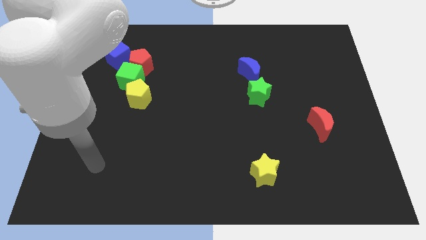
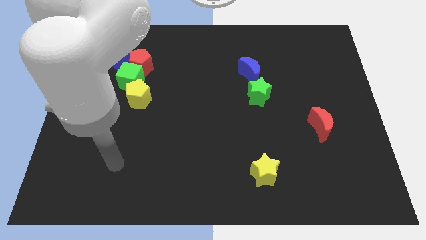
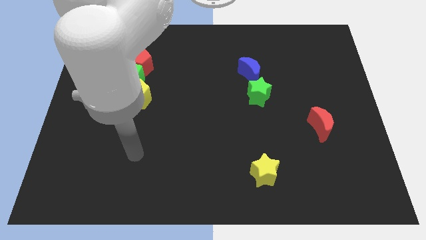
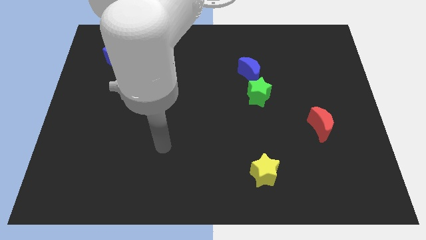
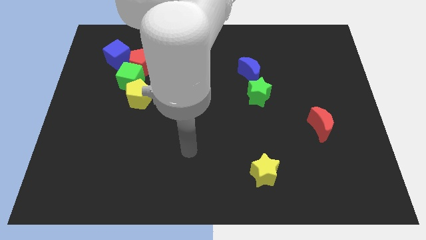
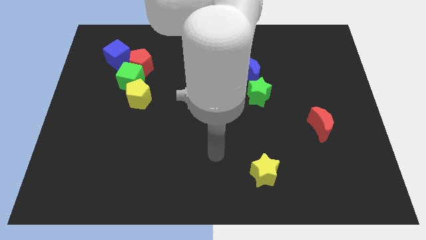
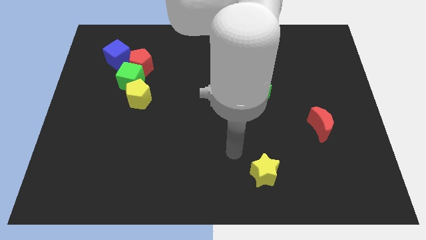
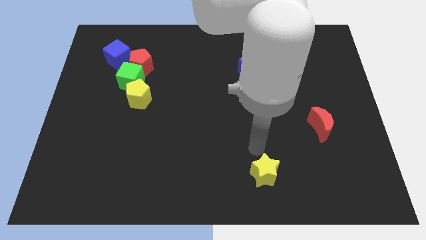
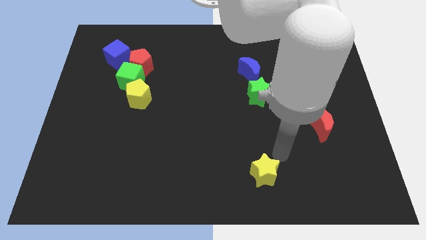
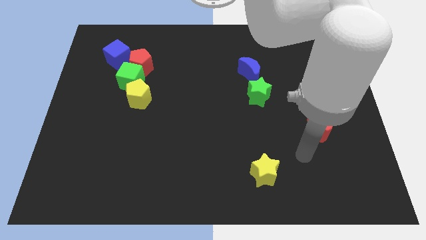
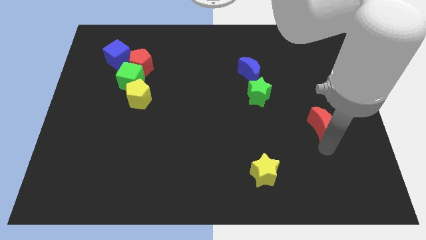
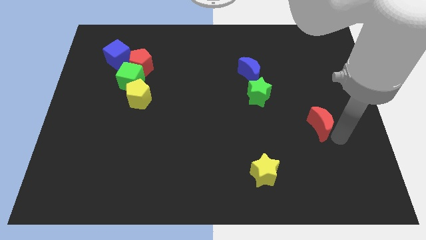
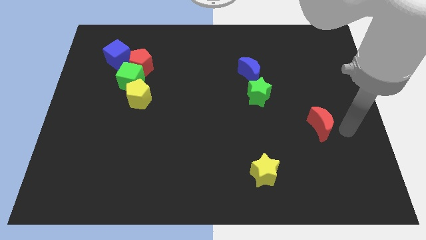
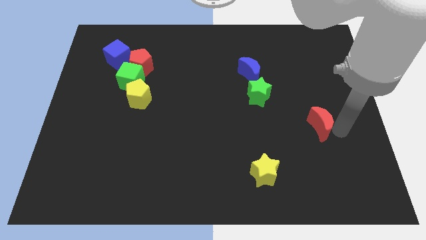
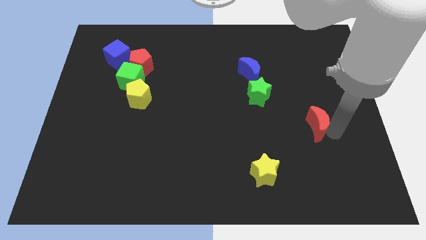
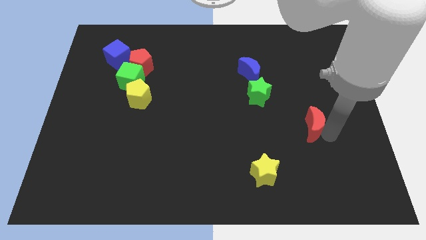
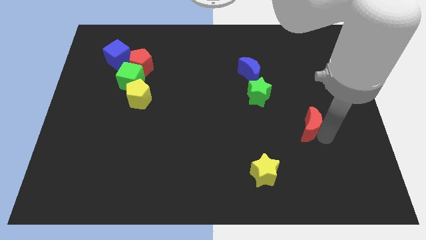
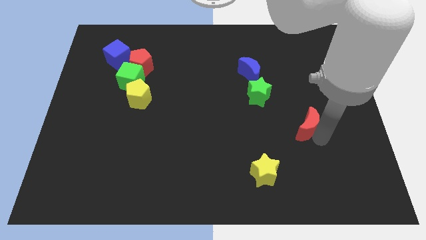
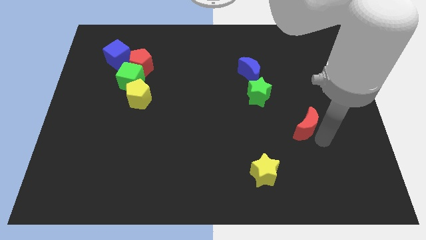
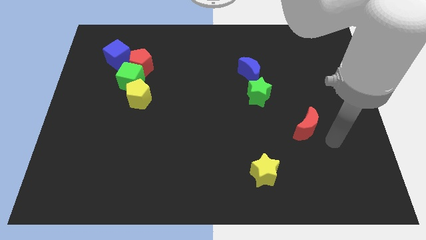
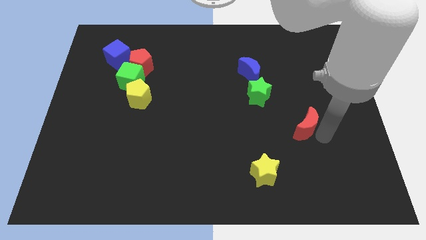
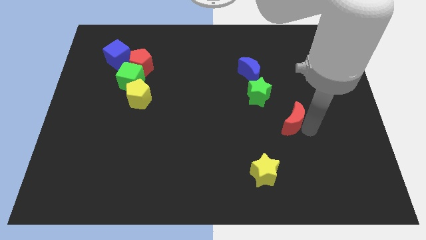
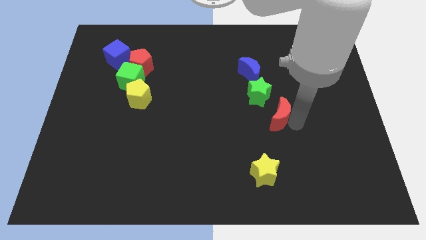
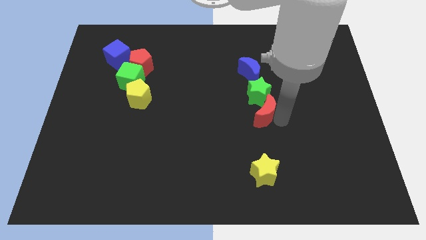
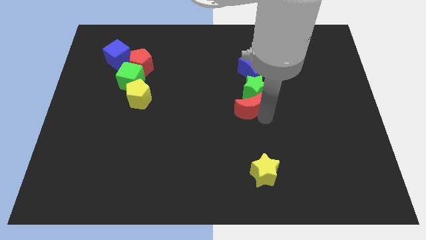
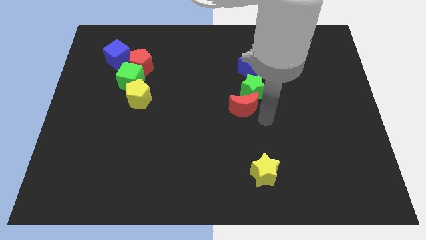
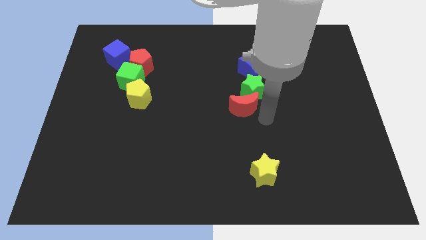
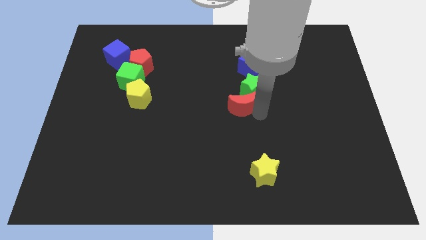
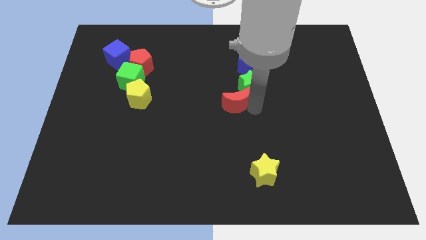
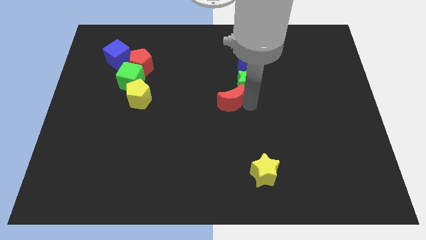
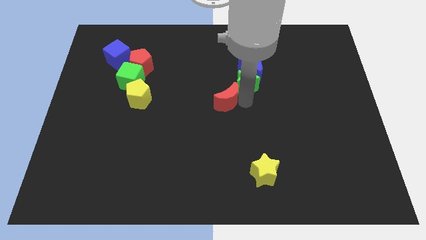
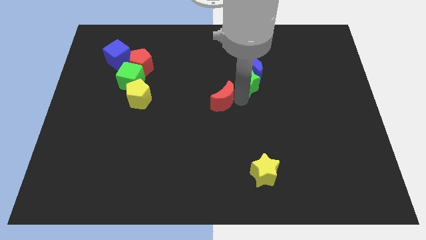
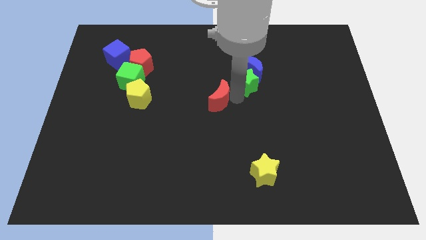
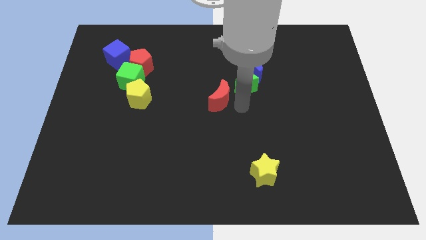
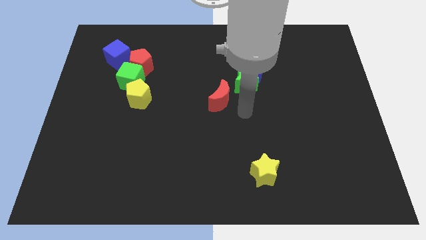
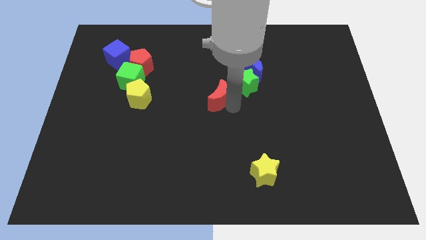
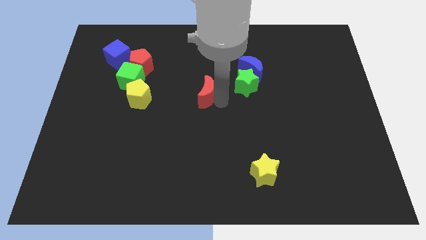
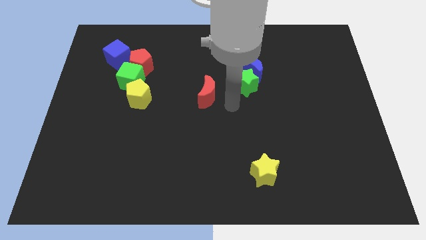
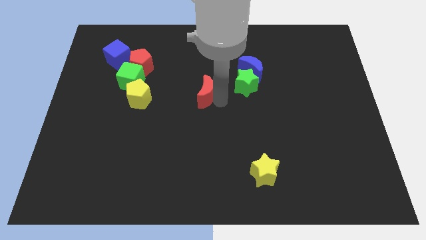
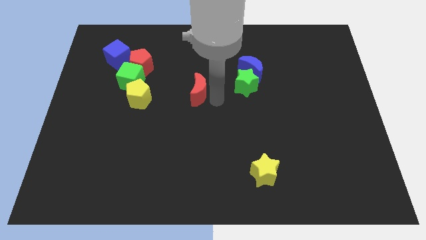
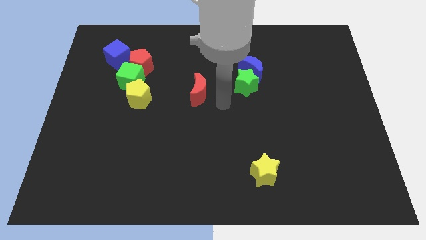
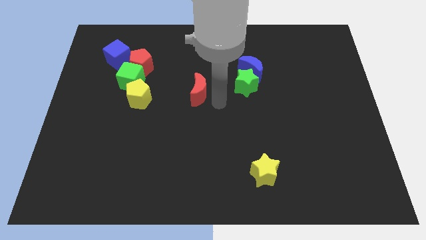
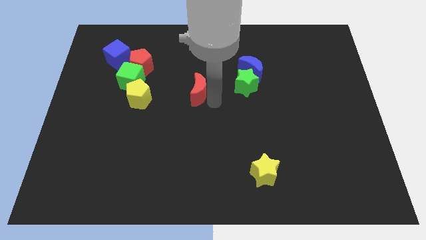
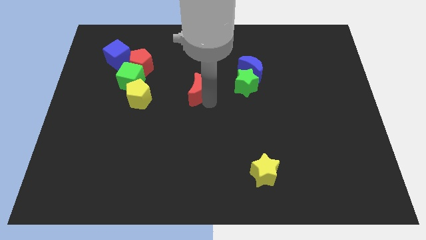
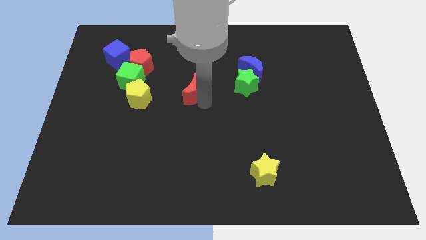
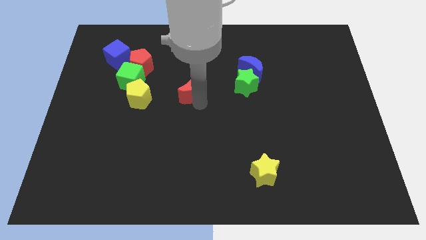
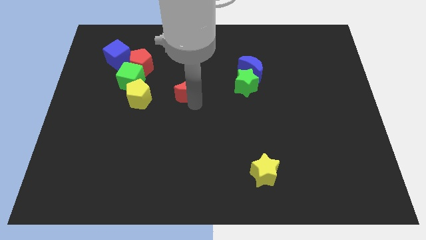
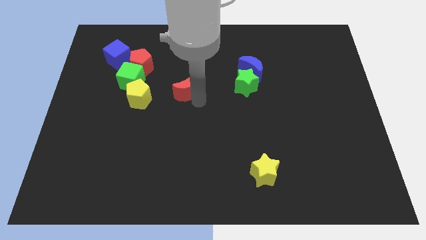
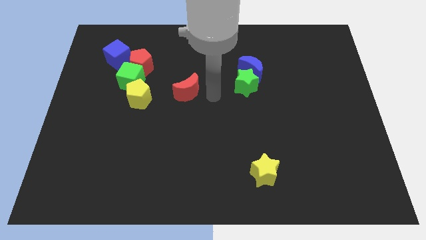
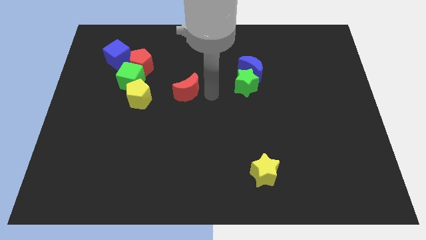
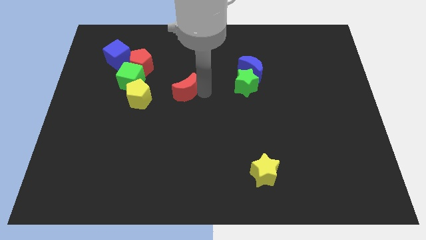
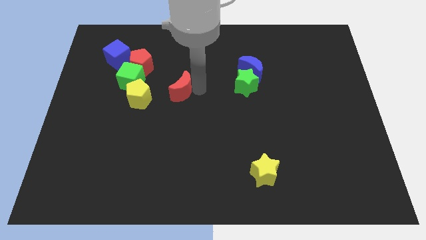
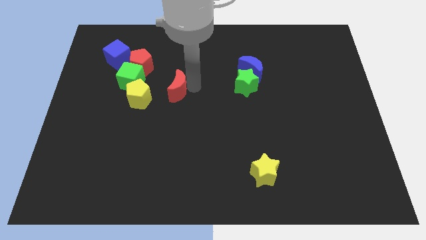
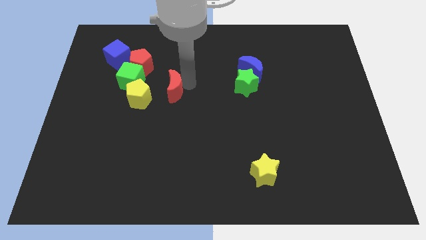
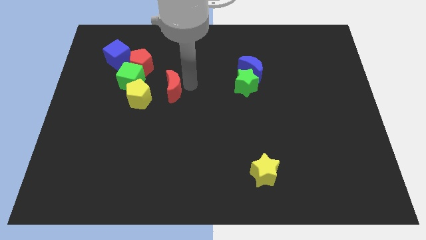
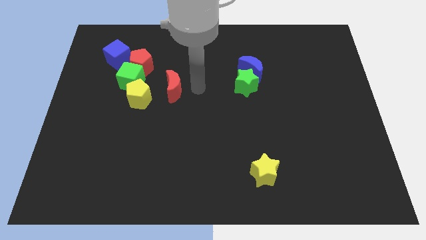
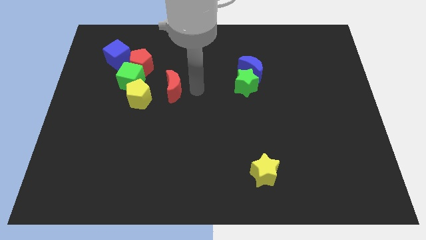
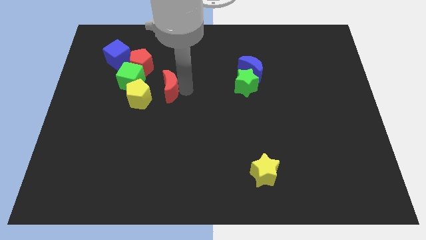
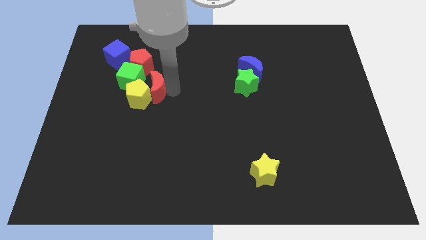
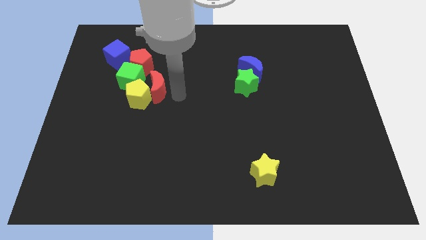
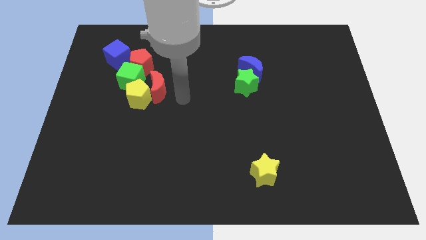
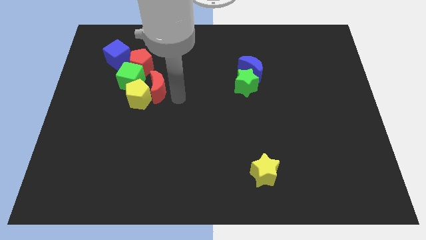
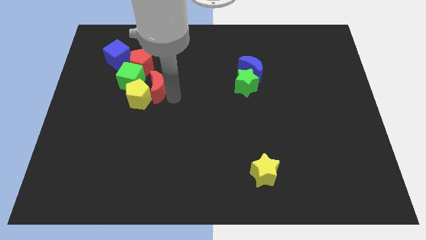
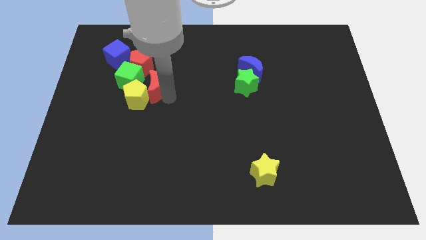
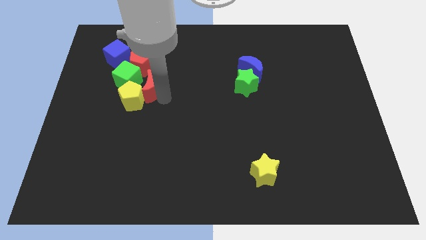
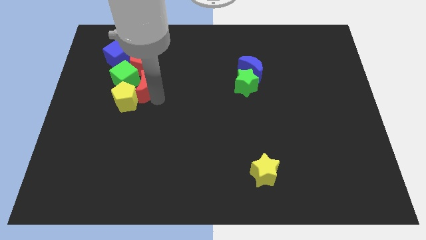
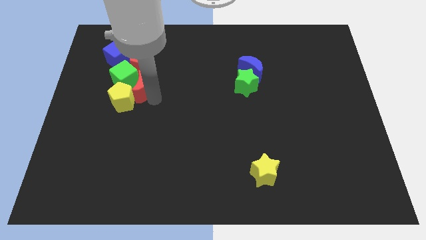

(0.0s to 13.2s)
move the red moon next to the green cube
